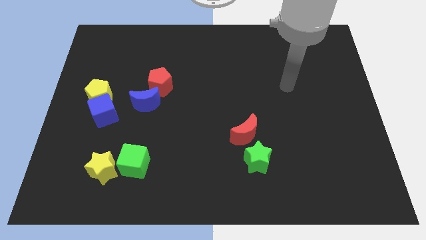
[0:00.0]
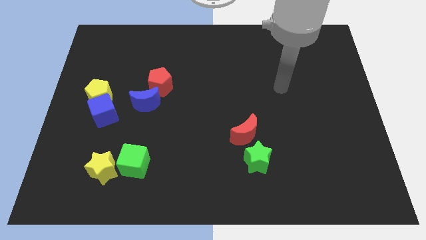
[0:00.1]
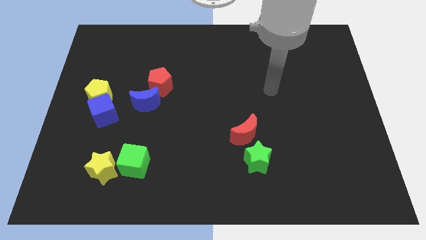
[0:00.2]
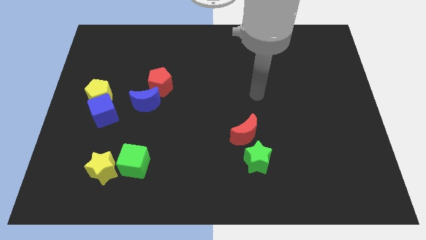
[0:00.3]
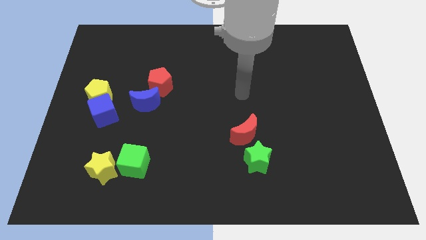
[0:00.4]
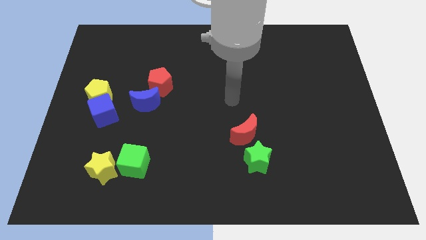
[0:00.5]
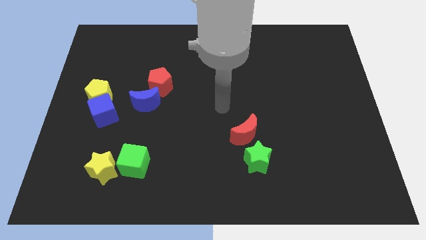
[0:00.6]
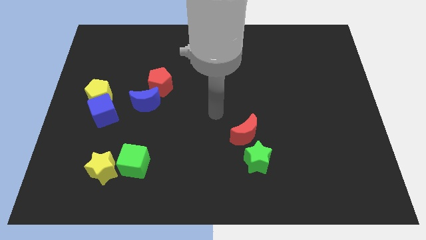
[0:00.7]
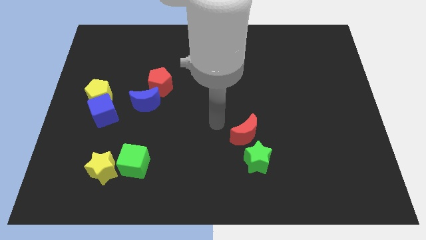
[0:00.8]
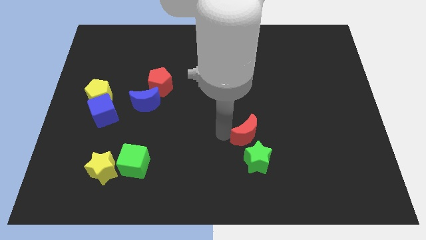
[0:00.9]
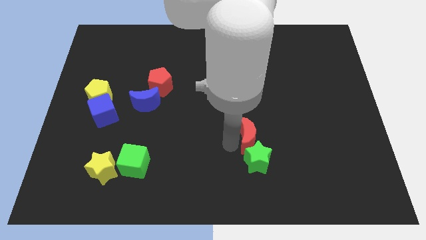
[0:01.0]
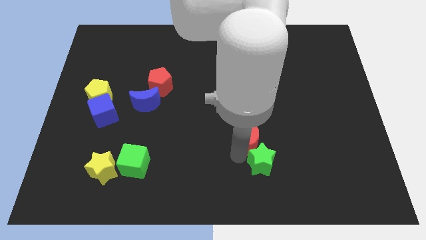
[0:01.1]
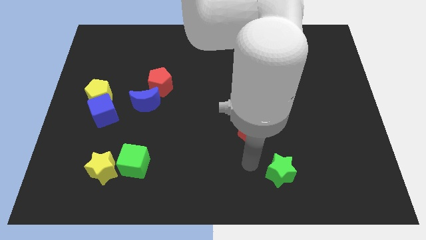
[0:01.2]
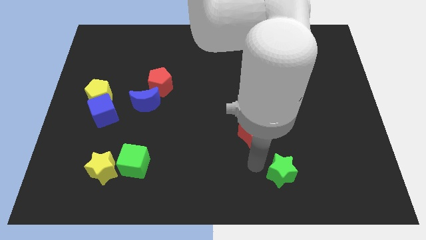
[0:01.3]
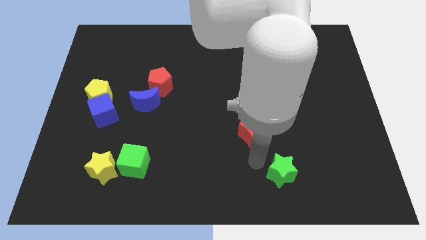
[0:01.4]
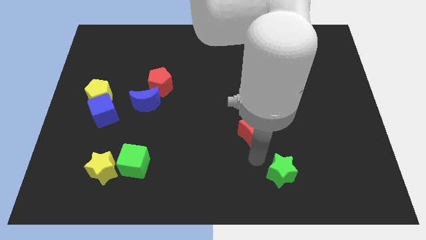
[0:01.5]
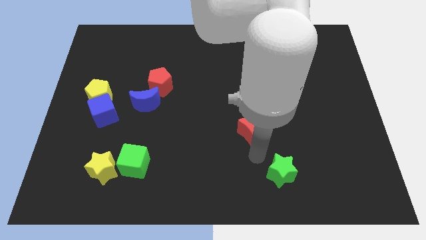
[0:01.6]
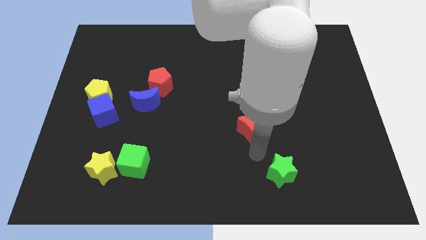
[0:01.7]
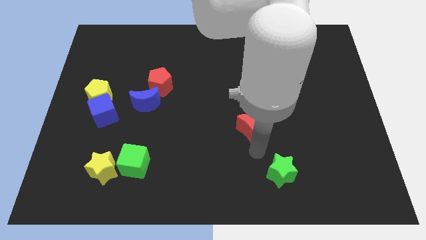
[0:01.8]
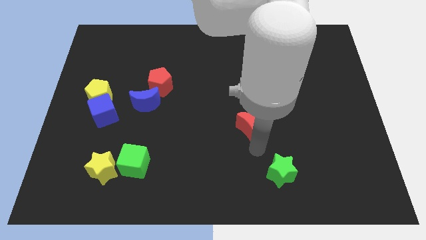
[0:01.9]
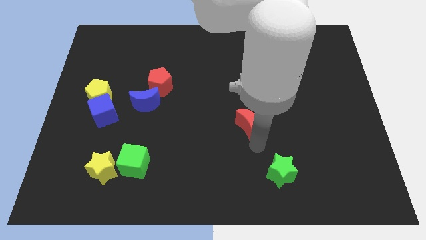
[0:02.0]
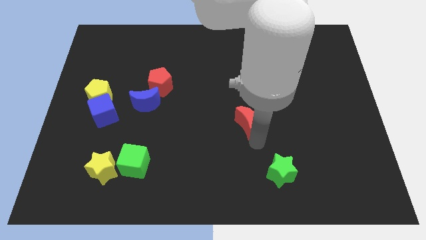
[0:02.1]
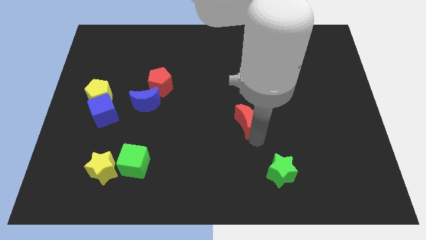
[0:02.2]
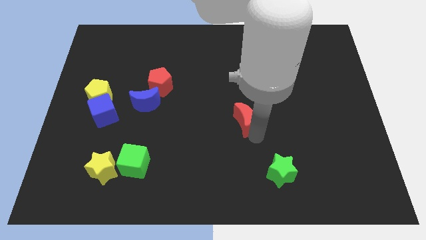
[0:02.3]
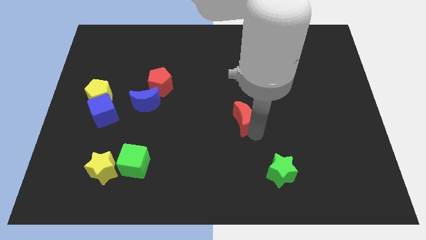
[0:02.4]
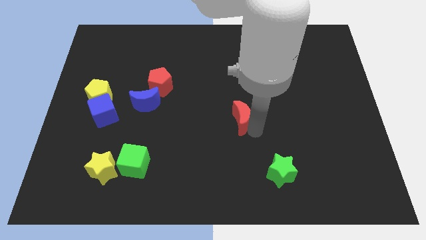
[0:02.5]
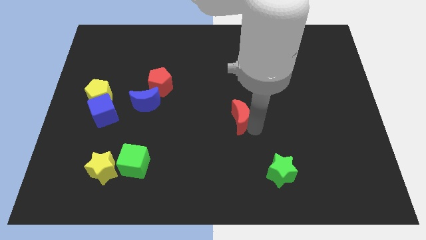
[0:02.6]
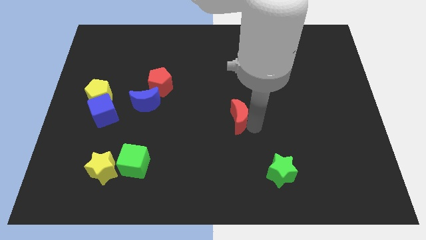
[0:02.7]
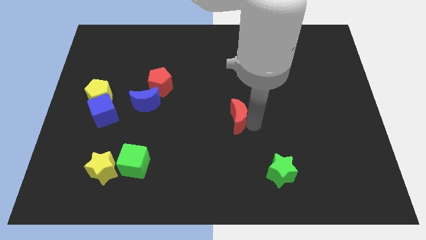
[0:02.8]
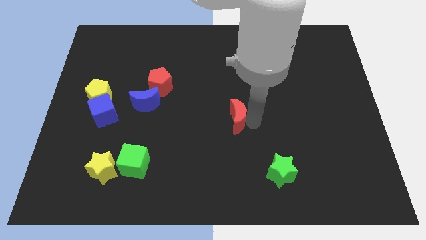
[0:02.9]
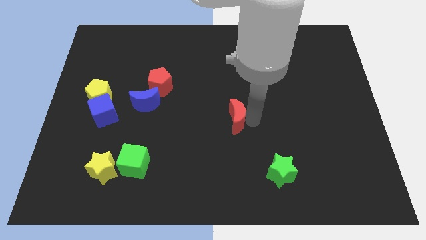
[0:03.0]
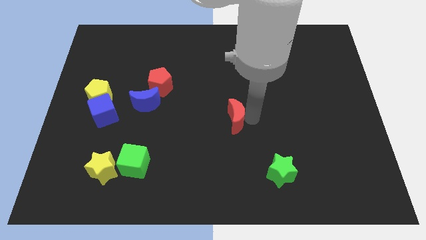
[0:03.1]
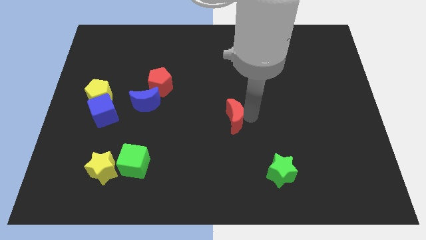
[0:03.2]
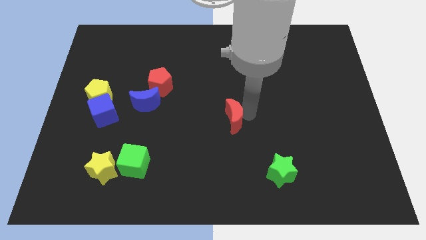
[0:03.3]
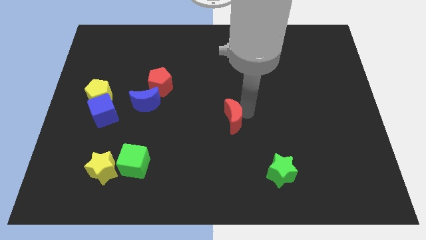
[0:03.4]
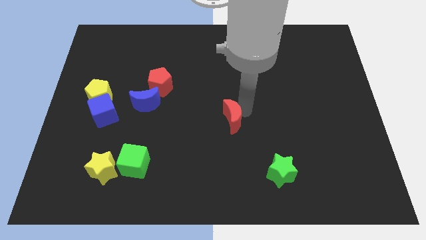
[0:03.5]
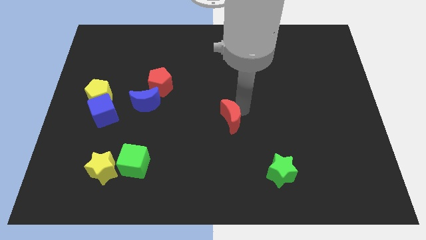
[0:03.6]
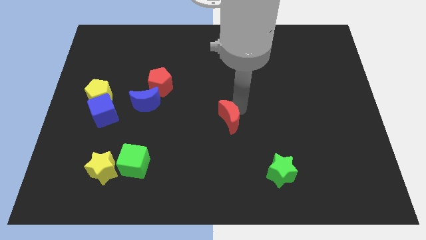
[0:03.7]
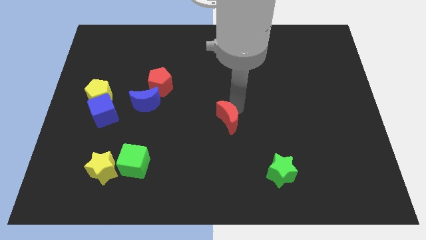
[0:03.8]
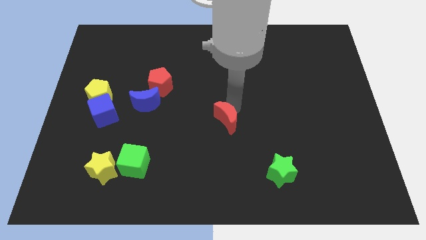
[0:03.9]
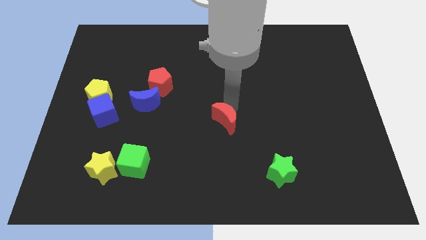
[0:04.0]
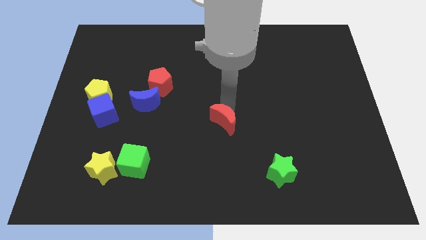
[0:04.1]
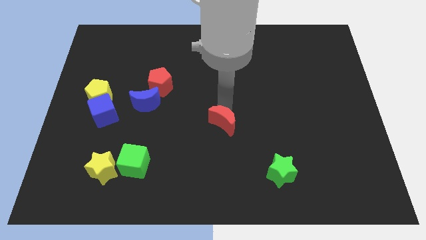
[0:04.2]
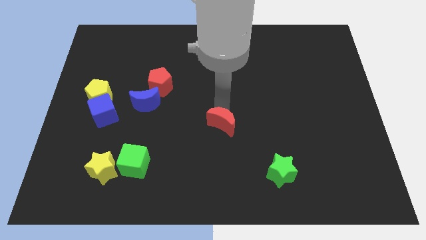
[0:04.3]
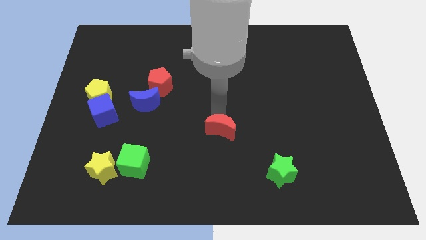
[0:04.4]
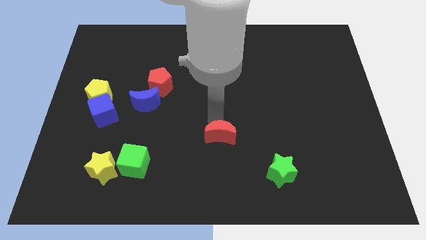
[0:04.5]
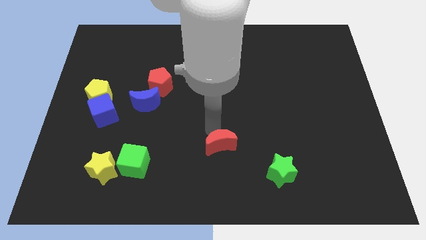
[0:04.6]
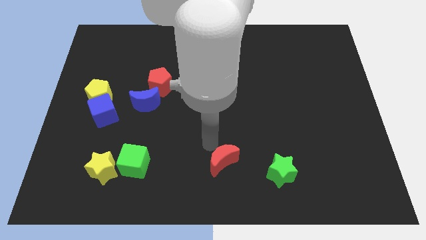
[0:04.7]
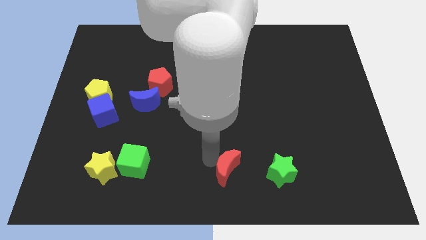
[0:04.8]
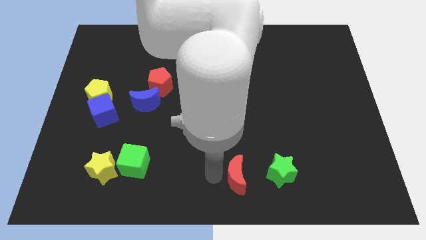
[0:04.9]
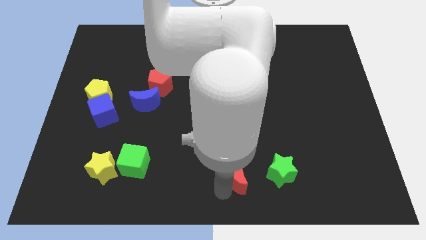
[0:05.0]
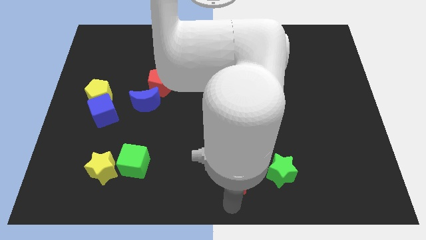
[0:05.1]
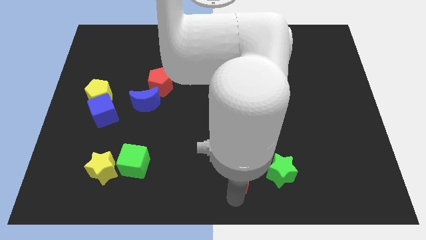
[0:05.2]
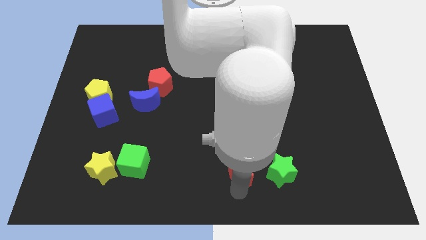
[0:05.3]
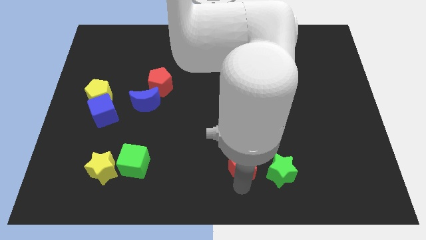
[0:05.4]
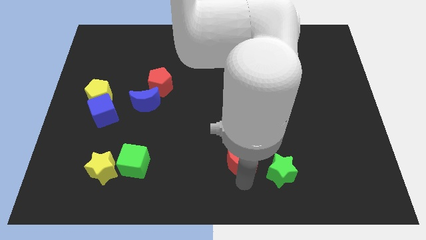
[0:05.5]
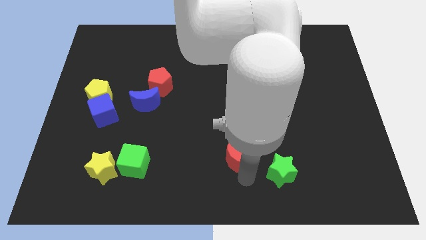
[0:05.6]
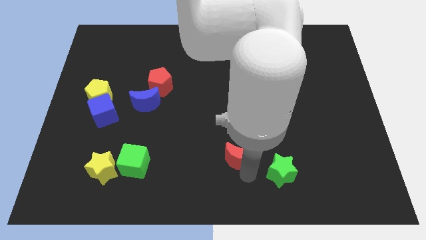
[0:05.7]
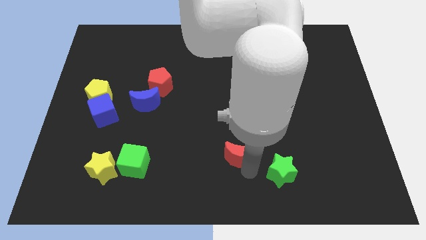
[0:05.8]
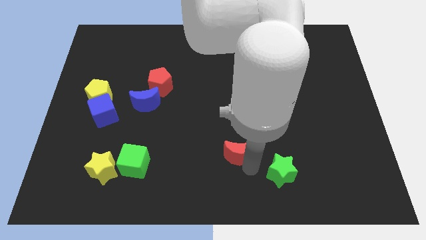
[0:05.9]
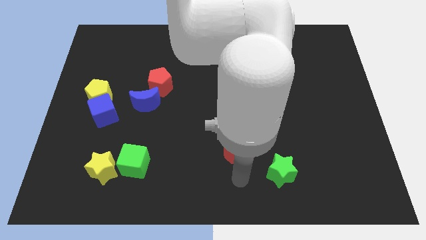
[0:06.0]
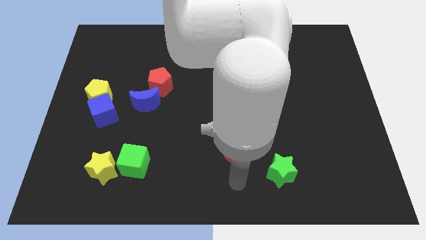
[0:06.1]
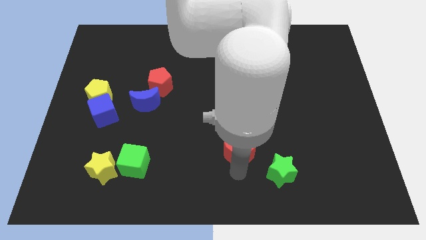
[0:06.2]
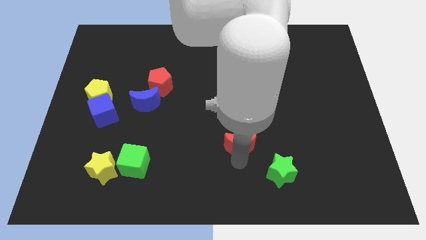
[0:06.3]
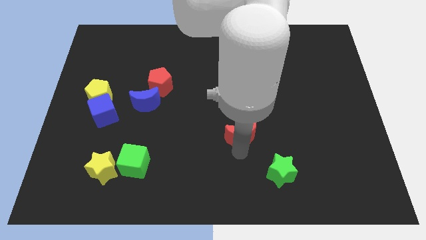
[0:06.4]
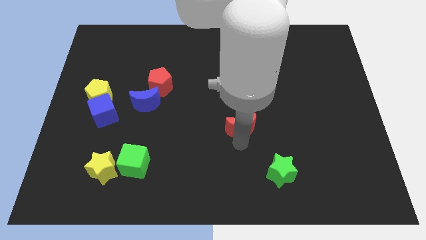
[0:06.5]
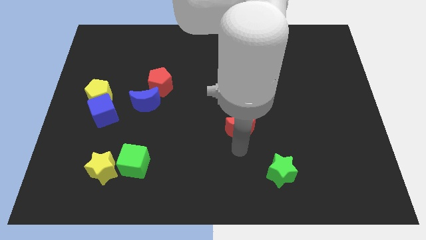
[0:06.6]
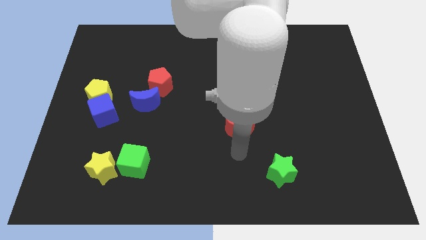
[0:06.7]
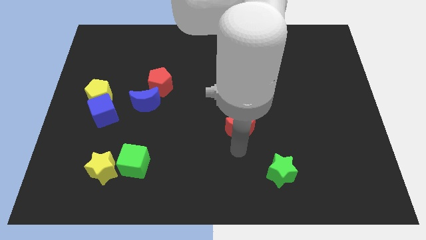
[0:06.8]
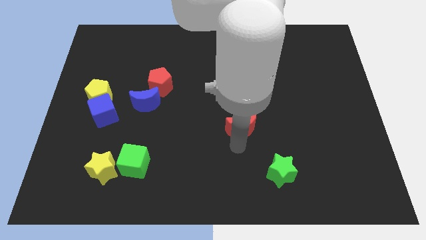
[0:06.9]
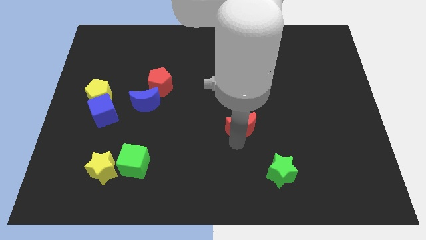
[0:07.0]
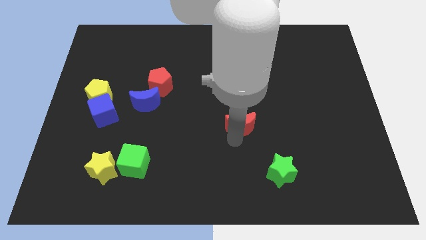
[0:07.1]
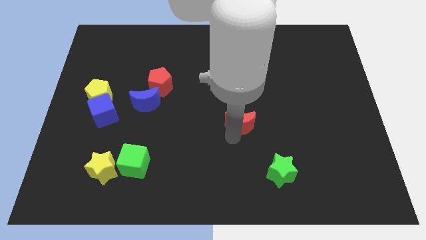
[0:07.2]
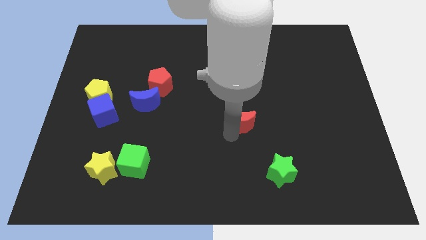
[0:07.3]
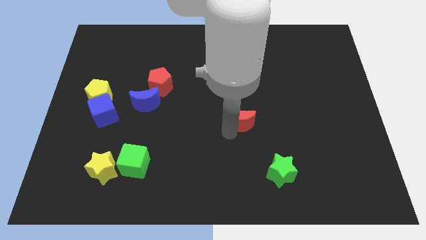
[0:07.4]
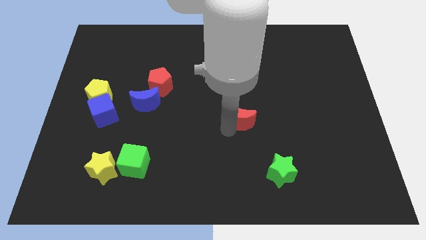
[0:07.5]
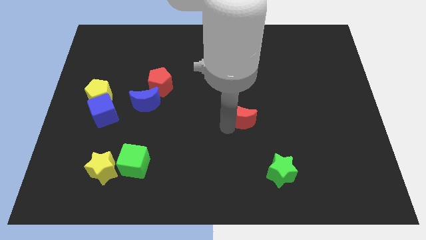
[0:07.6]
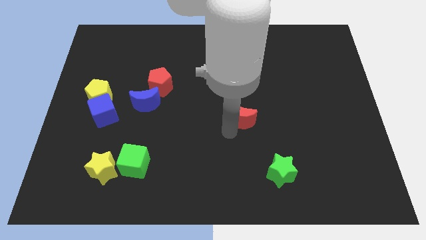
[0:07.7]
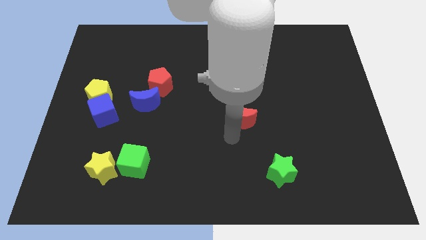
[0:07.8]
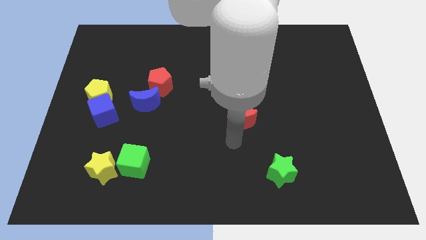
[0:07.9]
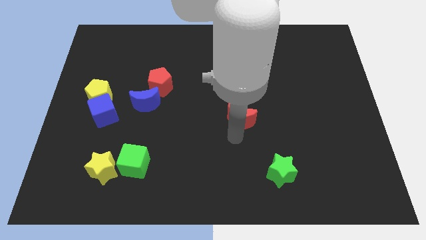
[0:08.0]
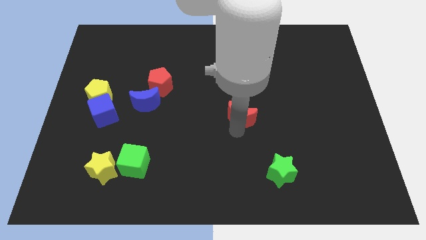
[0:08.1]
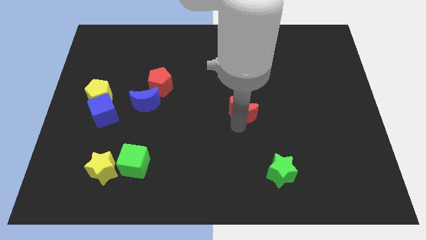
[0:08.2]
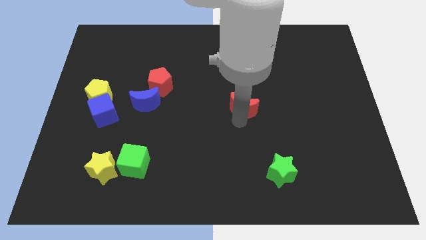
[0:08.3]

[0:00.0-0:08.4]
slide the red moon up slightly
